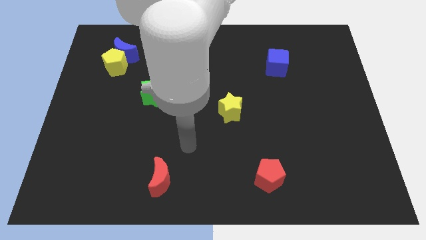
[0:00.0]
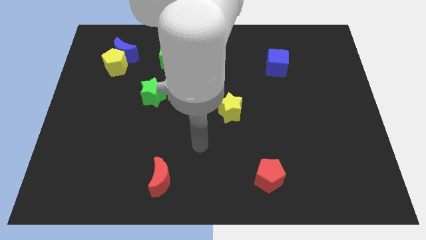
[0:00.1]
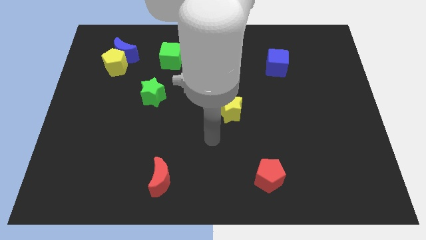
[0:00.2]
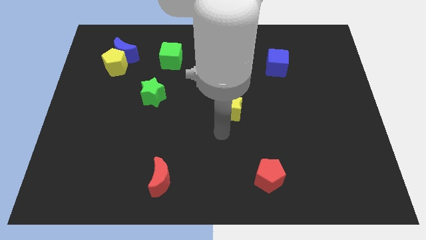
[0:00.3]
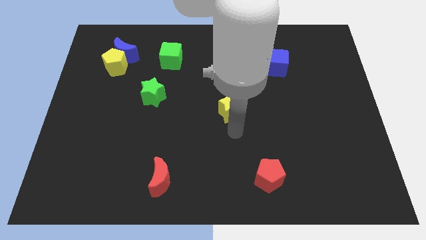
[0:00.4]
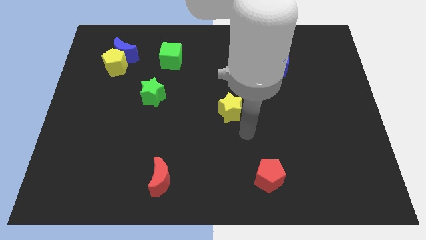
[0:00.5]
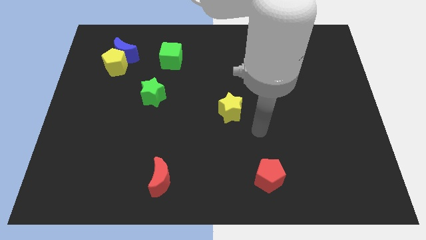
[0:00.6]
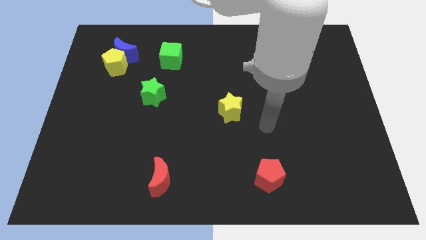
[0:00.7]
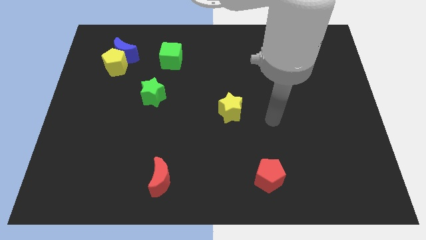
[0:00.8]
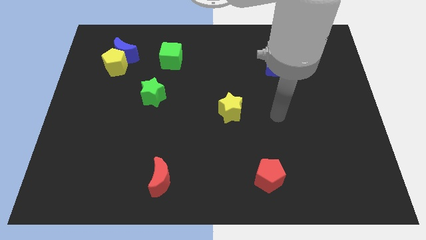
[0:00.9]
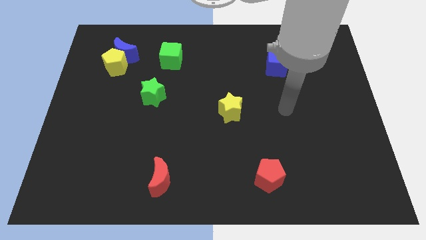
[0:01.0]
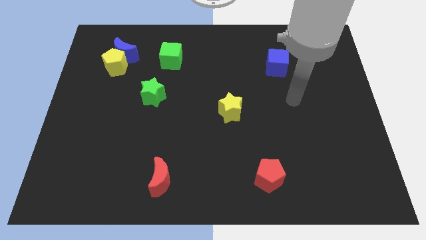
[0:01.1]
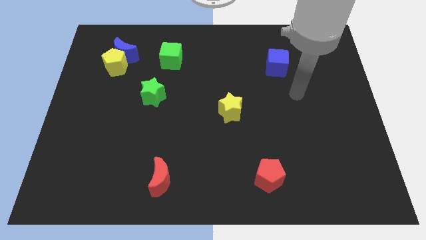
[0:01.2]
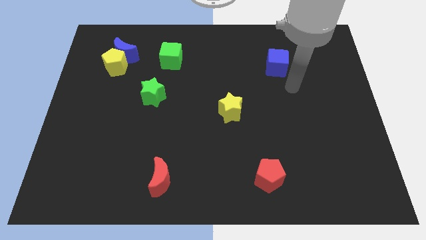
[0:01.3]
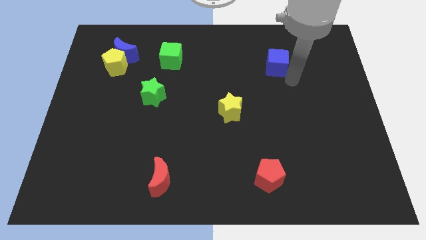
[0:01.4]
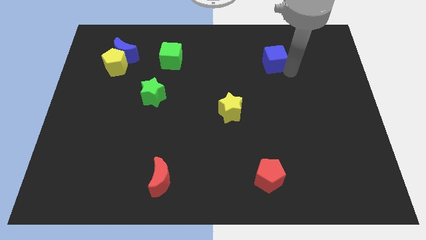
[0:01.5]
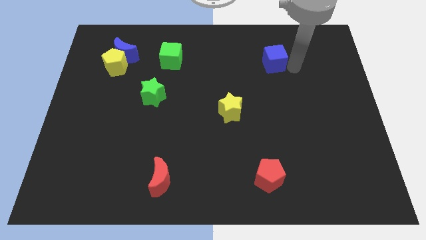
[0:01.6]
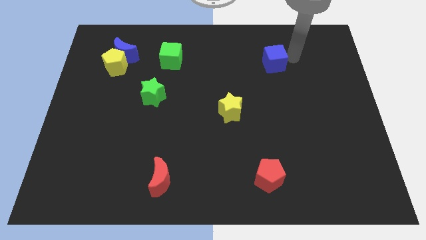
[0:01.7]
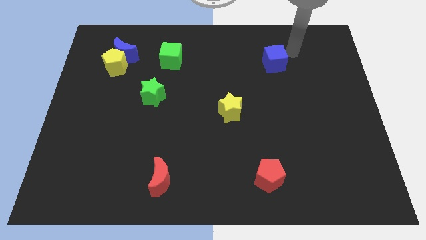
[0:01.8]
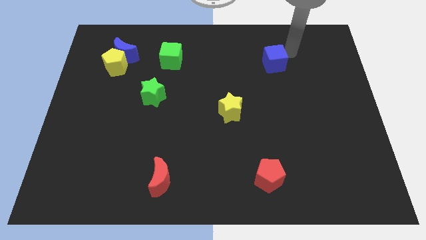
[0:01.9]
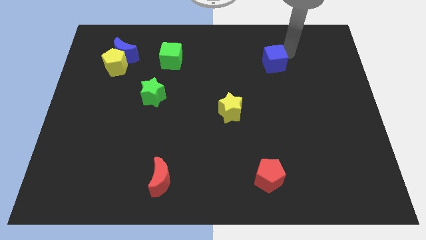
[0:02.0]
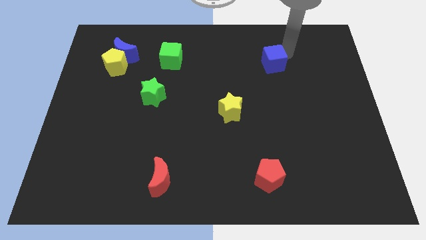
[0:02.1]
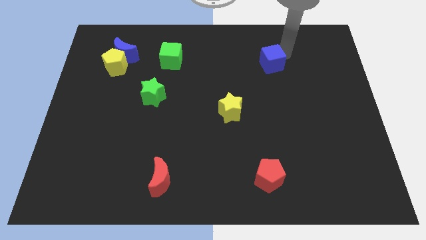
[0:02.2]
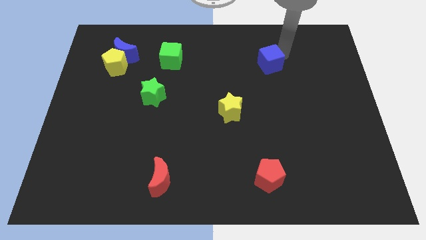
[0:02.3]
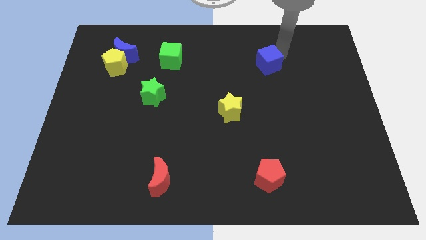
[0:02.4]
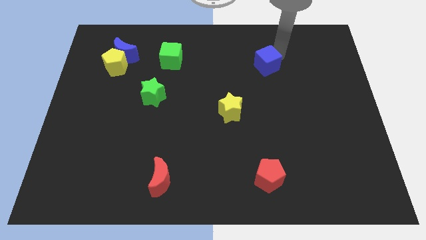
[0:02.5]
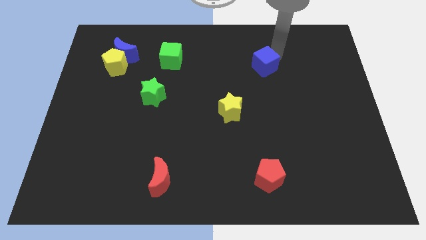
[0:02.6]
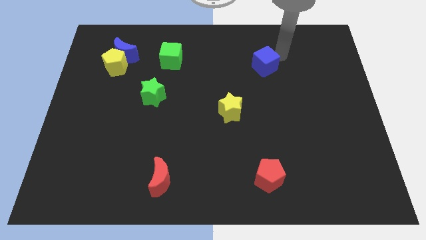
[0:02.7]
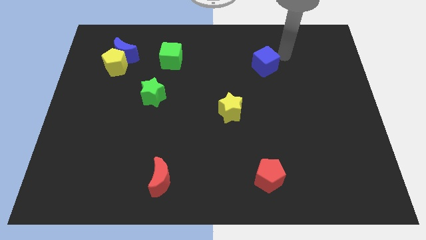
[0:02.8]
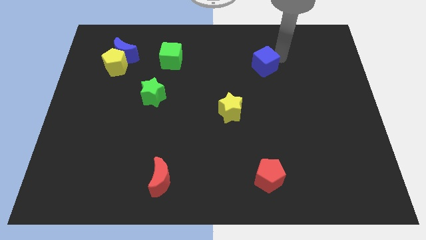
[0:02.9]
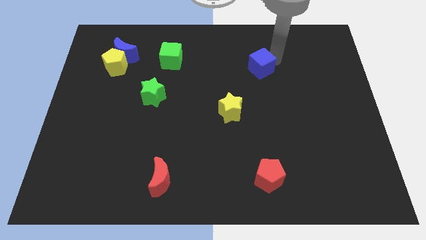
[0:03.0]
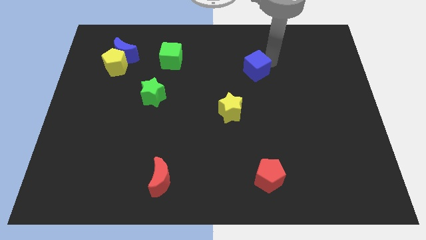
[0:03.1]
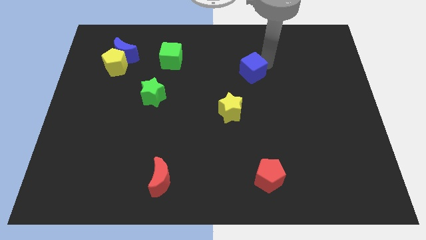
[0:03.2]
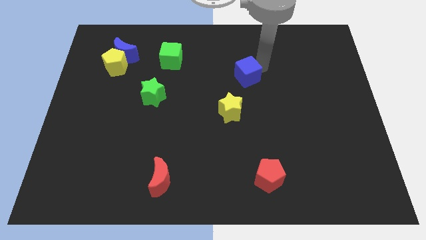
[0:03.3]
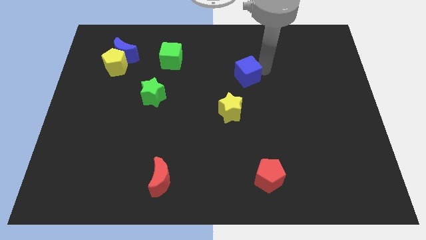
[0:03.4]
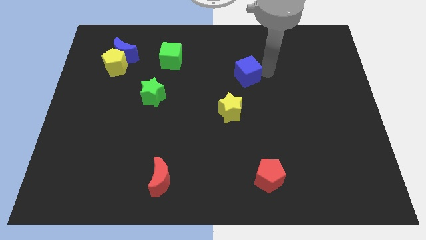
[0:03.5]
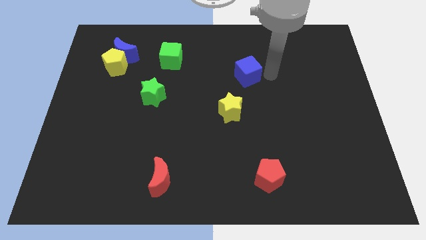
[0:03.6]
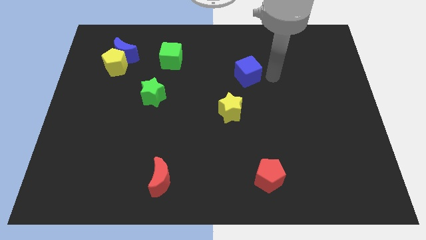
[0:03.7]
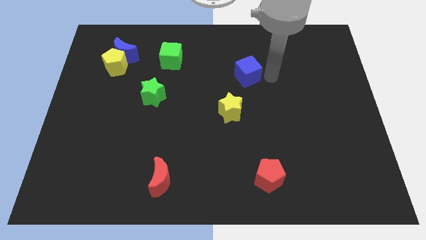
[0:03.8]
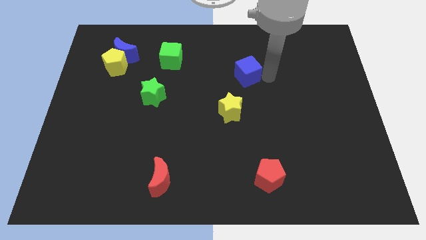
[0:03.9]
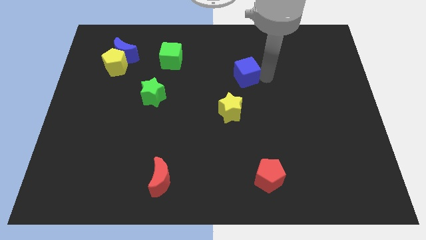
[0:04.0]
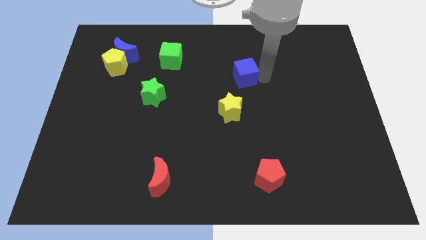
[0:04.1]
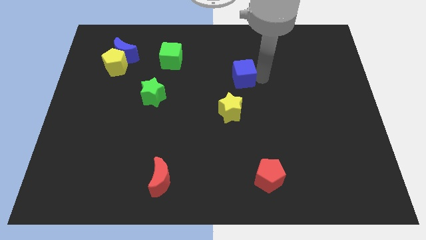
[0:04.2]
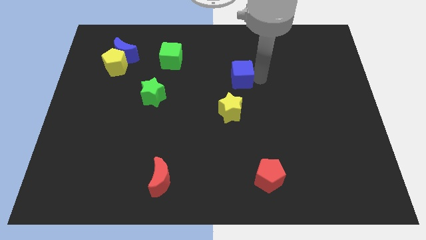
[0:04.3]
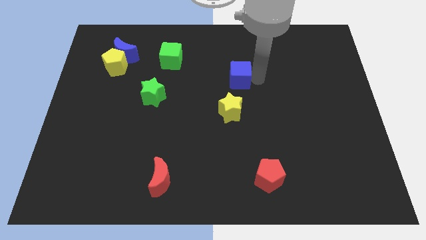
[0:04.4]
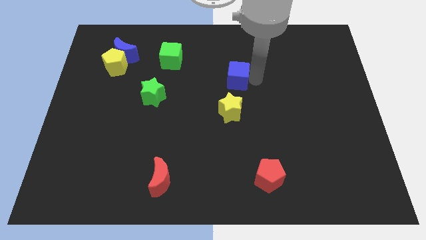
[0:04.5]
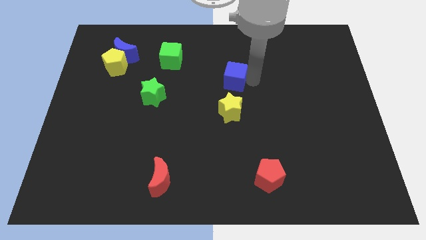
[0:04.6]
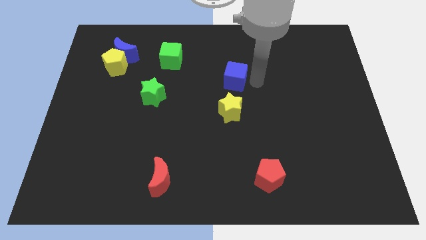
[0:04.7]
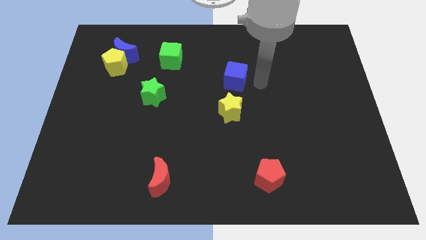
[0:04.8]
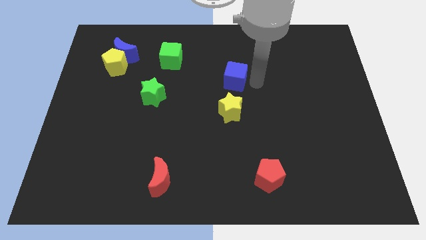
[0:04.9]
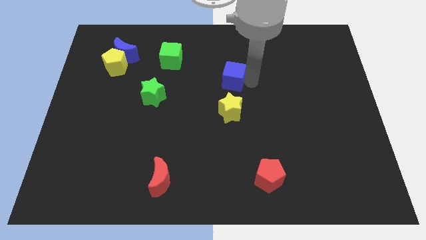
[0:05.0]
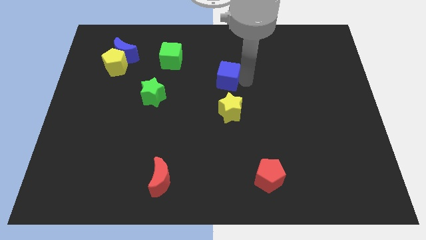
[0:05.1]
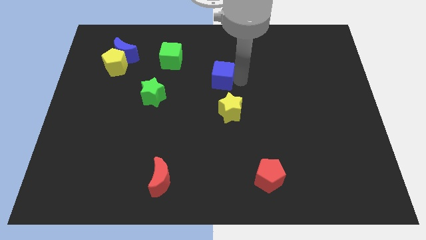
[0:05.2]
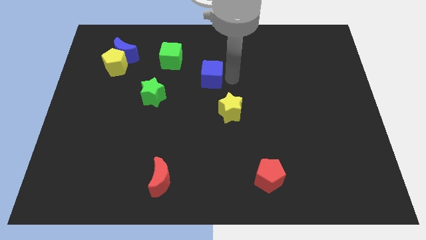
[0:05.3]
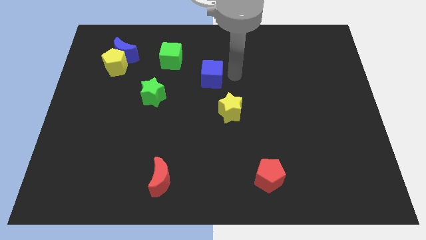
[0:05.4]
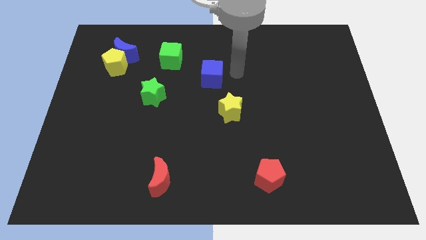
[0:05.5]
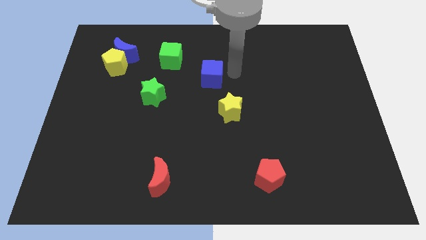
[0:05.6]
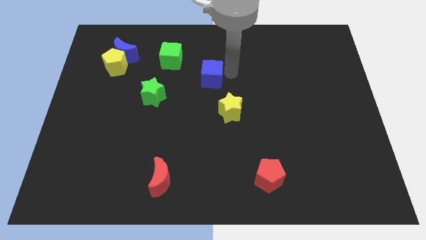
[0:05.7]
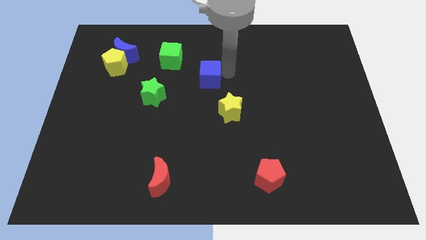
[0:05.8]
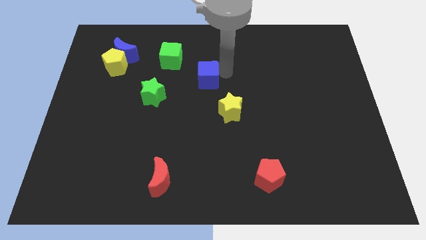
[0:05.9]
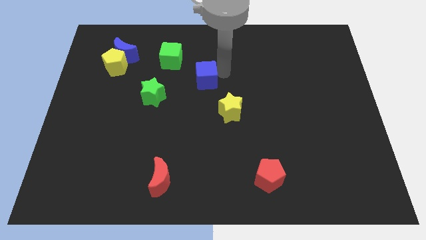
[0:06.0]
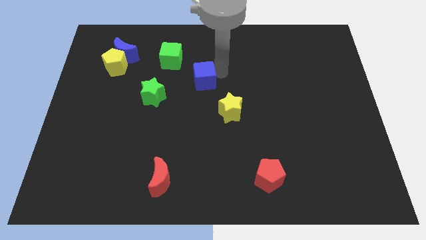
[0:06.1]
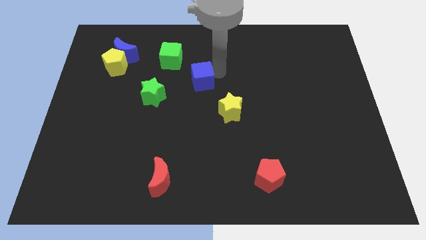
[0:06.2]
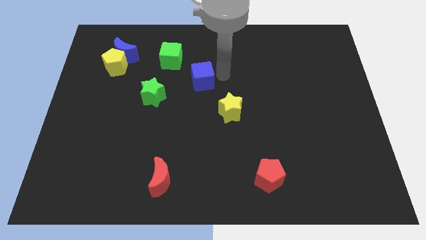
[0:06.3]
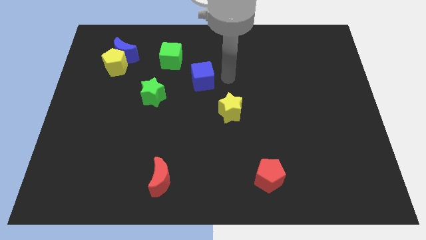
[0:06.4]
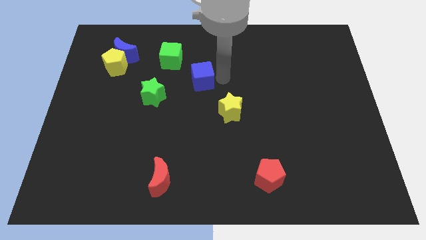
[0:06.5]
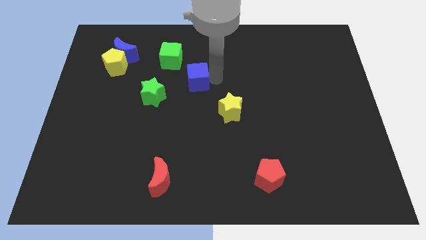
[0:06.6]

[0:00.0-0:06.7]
put the blue cube to the top right side of the green star

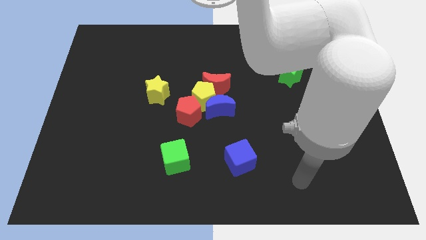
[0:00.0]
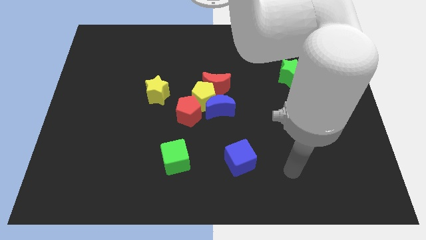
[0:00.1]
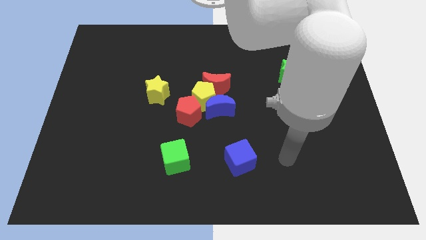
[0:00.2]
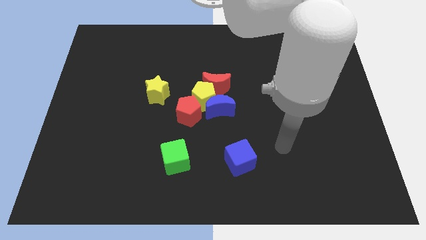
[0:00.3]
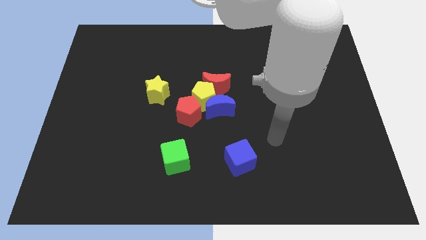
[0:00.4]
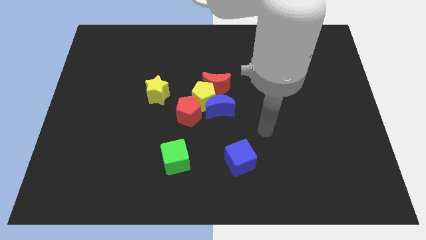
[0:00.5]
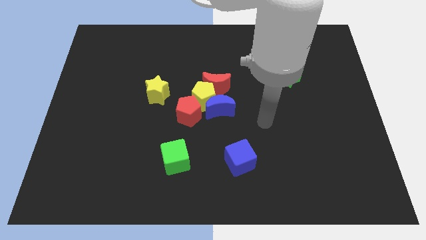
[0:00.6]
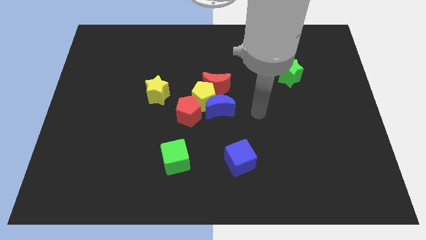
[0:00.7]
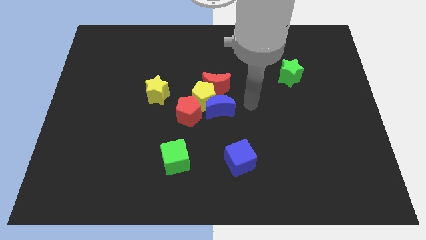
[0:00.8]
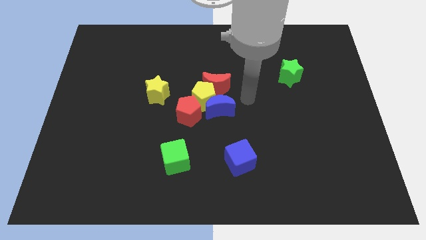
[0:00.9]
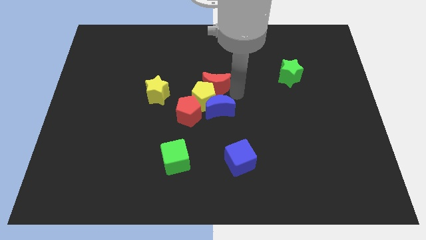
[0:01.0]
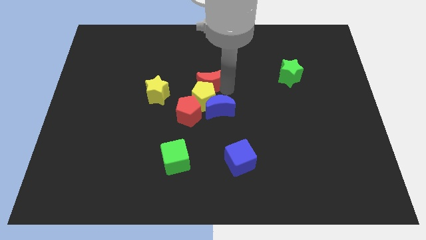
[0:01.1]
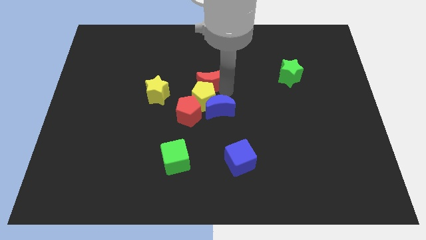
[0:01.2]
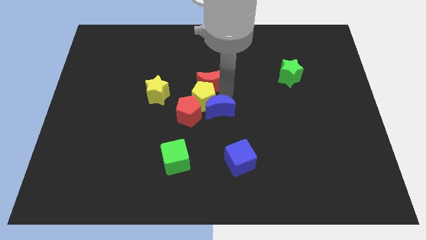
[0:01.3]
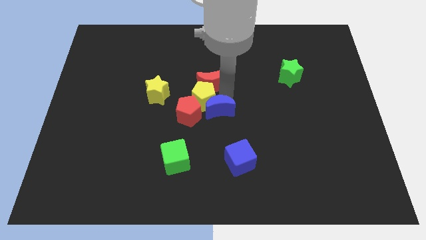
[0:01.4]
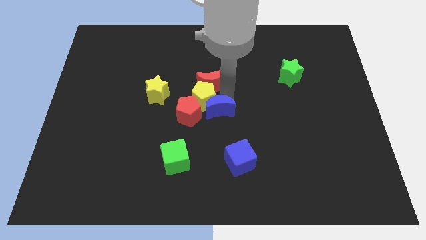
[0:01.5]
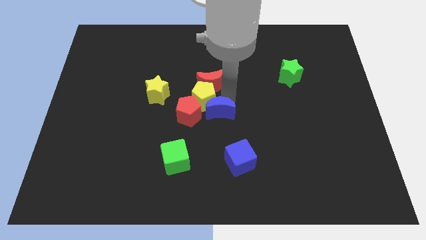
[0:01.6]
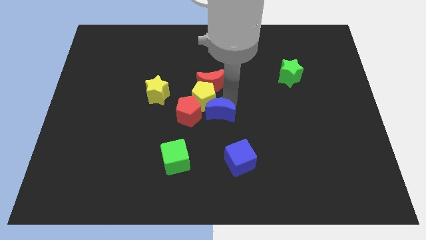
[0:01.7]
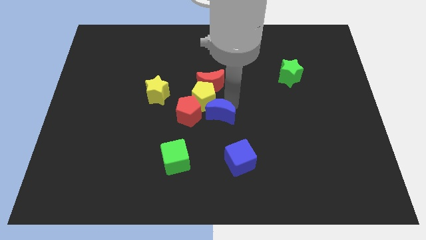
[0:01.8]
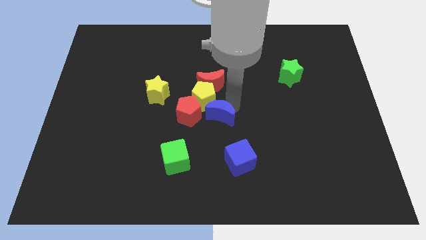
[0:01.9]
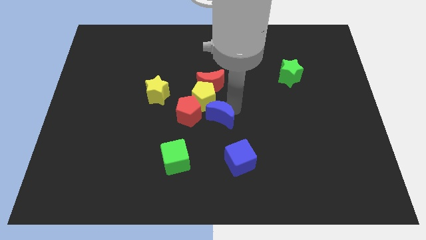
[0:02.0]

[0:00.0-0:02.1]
move the blue moon diagonally down and to the right of the red pentagon
